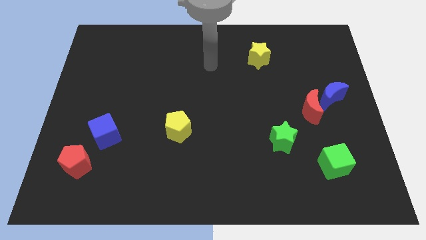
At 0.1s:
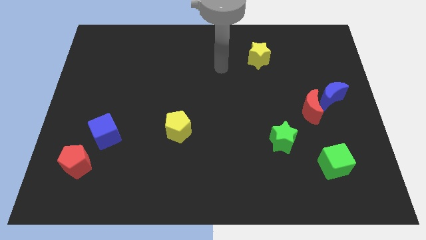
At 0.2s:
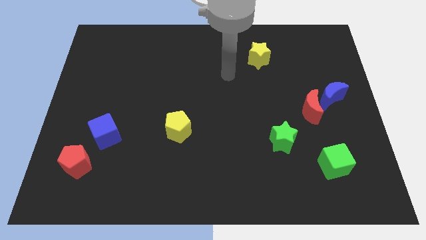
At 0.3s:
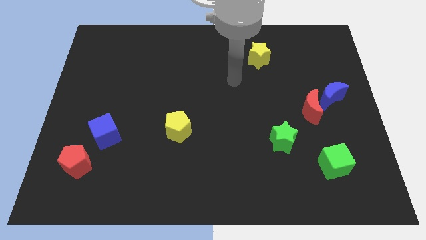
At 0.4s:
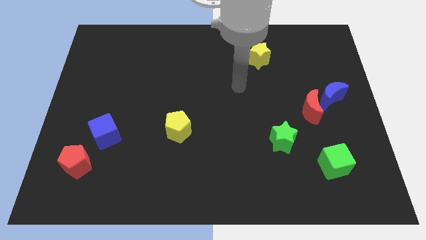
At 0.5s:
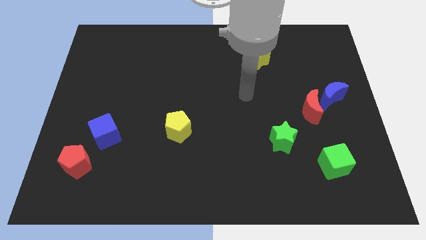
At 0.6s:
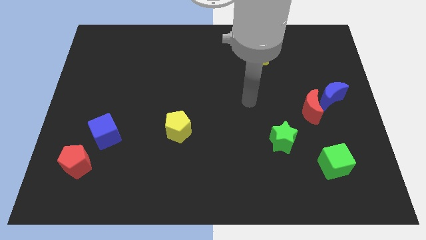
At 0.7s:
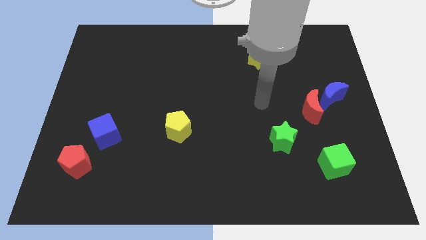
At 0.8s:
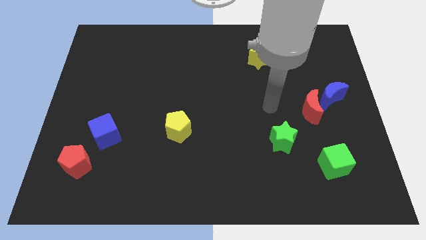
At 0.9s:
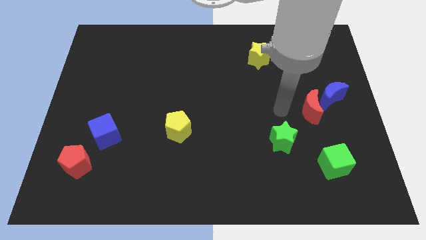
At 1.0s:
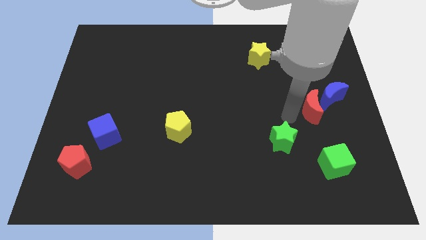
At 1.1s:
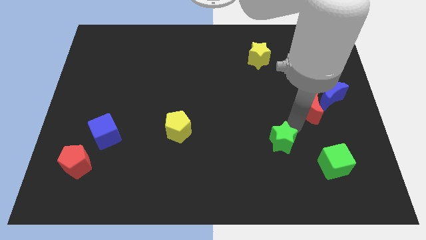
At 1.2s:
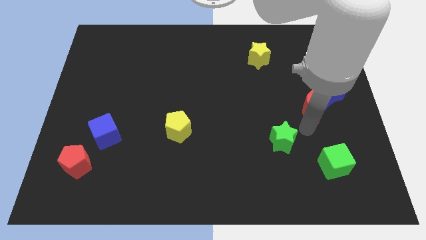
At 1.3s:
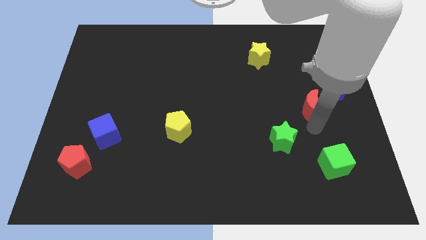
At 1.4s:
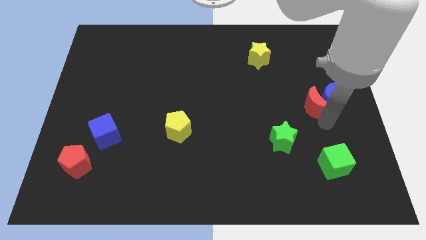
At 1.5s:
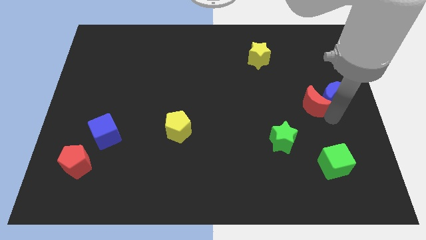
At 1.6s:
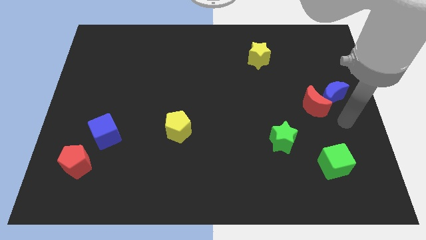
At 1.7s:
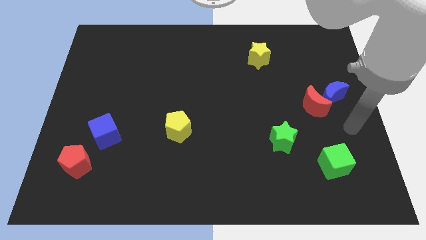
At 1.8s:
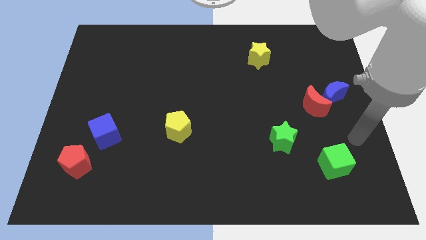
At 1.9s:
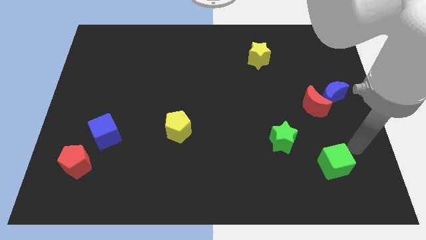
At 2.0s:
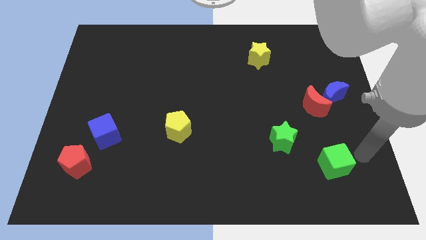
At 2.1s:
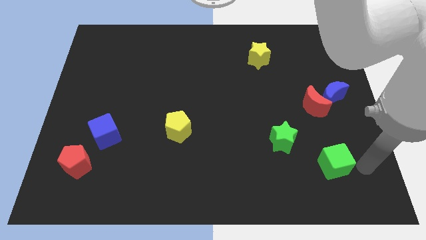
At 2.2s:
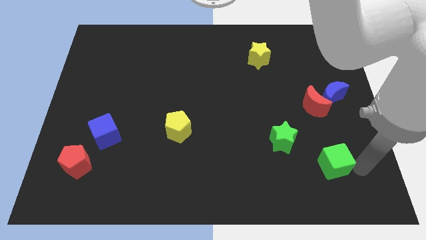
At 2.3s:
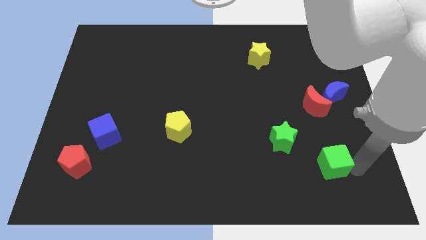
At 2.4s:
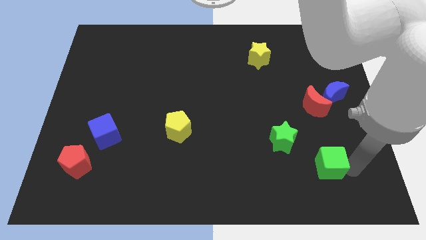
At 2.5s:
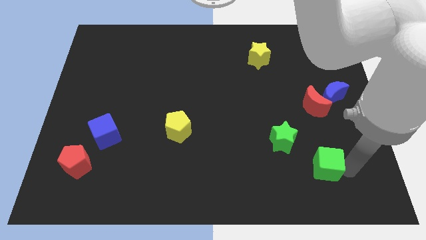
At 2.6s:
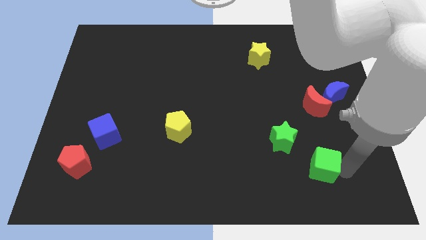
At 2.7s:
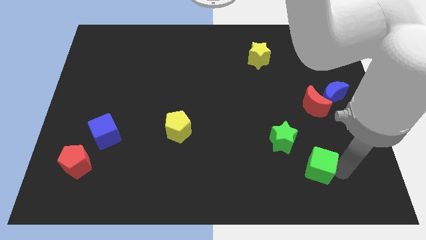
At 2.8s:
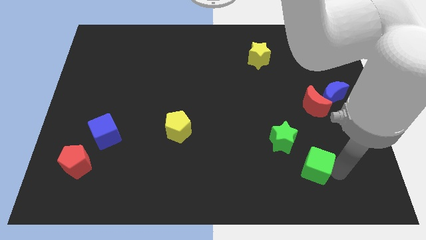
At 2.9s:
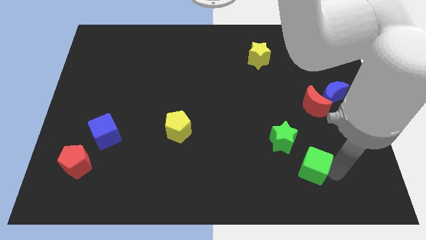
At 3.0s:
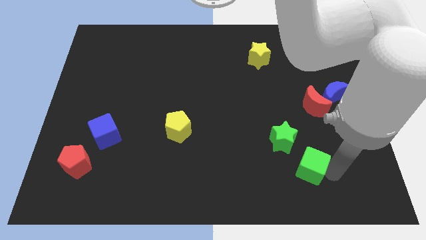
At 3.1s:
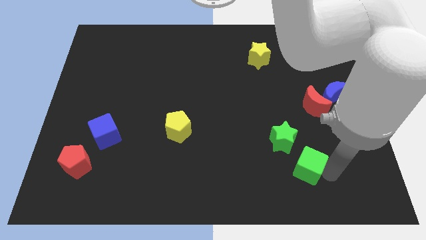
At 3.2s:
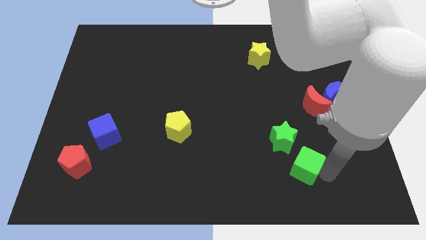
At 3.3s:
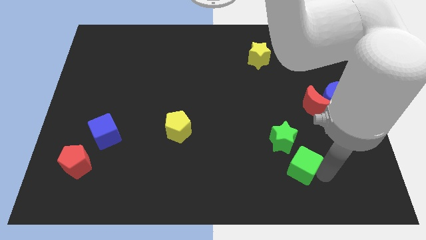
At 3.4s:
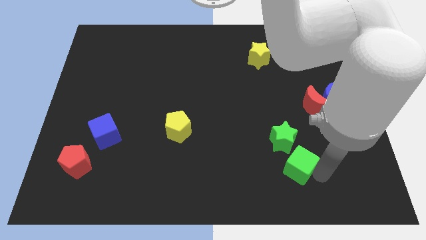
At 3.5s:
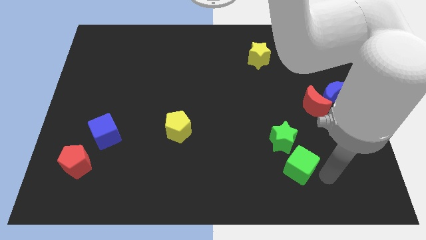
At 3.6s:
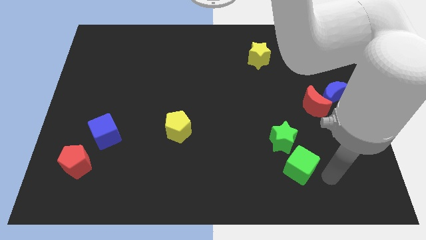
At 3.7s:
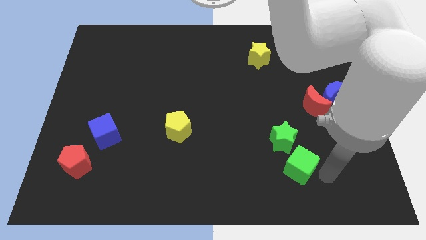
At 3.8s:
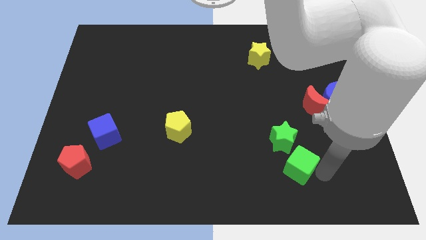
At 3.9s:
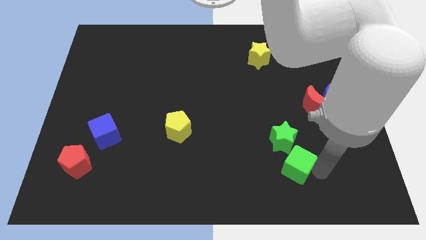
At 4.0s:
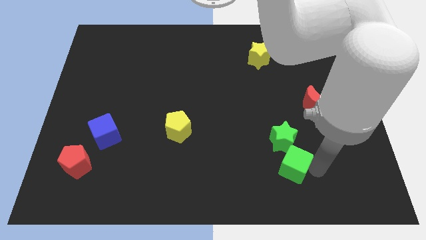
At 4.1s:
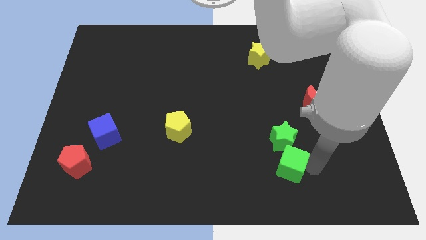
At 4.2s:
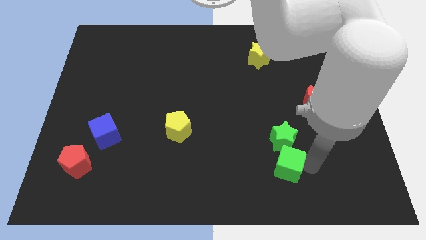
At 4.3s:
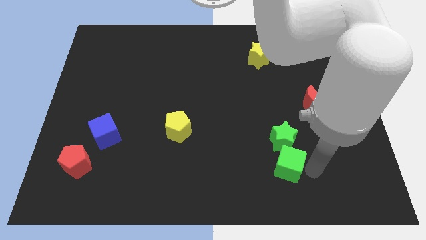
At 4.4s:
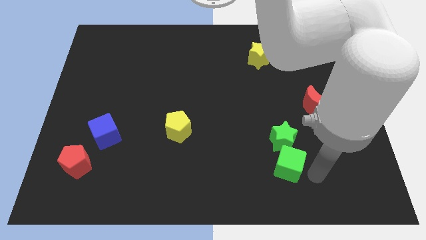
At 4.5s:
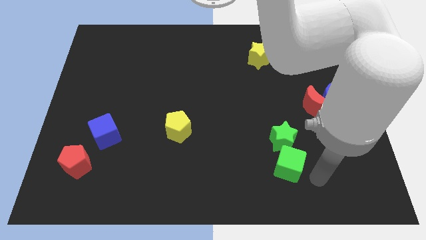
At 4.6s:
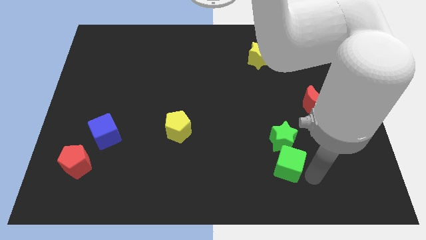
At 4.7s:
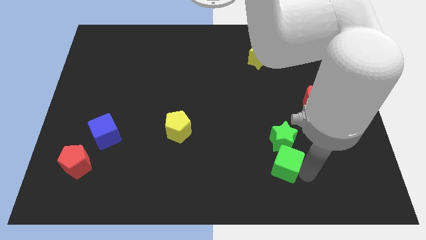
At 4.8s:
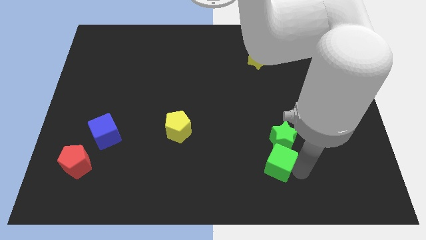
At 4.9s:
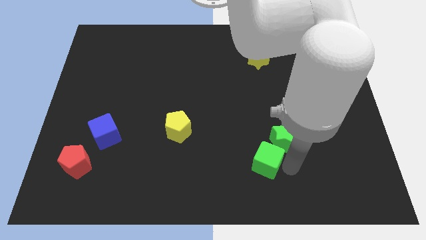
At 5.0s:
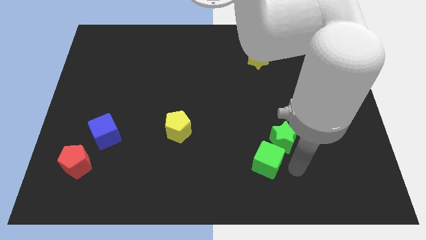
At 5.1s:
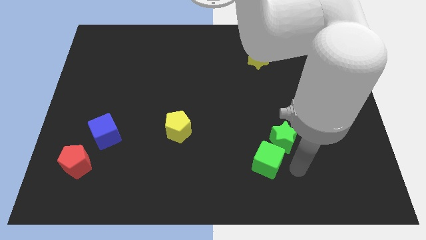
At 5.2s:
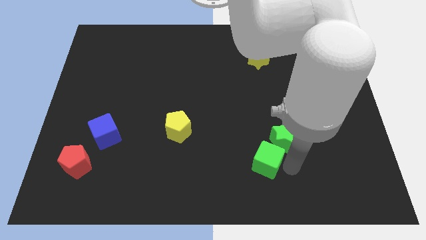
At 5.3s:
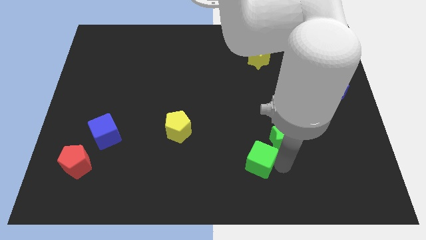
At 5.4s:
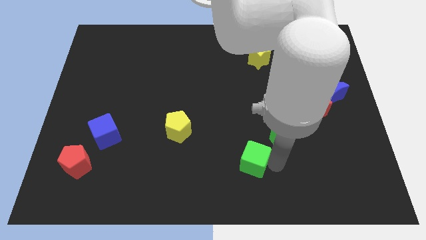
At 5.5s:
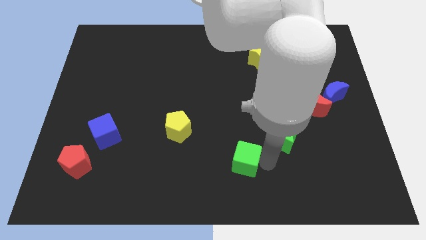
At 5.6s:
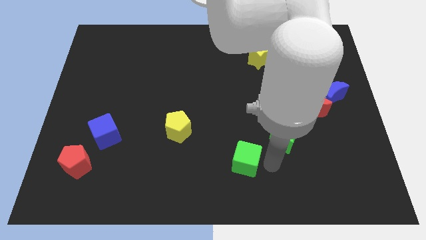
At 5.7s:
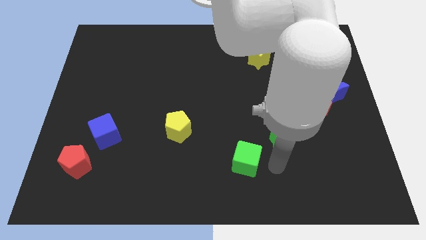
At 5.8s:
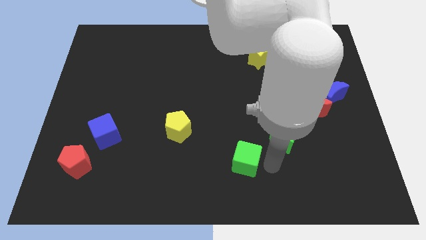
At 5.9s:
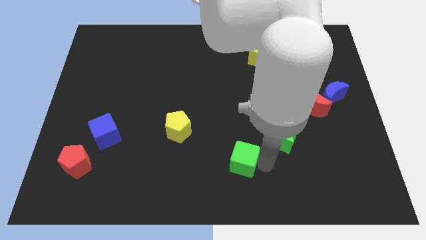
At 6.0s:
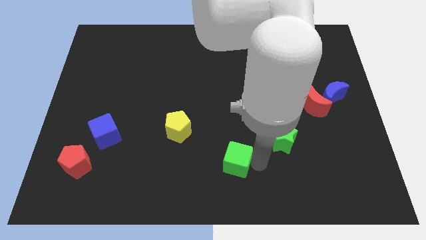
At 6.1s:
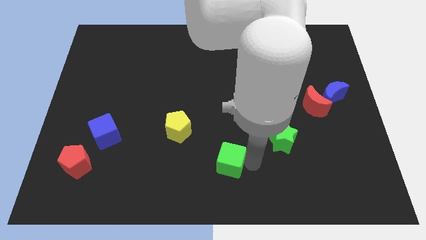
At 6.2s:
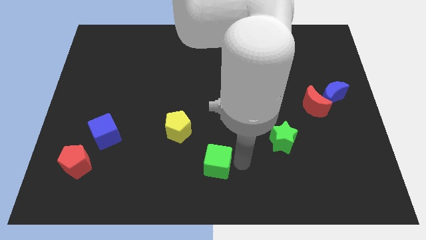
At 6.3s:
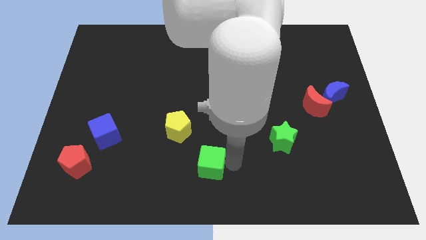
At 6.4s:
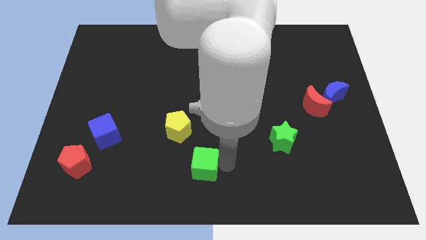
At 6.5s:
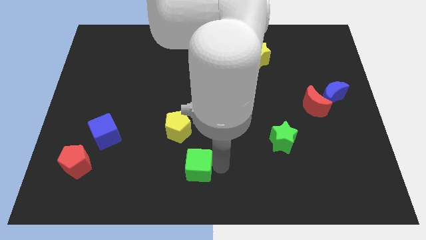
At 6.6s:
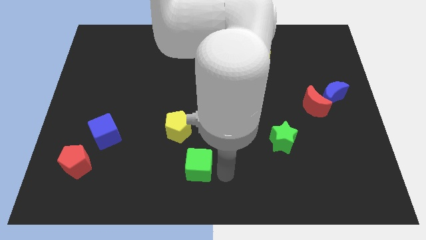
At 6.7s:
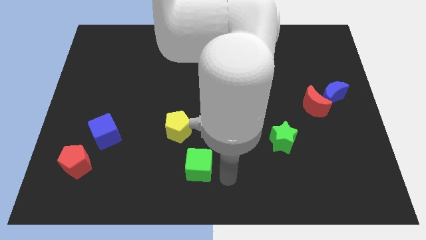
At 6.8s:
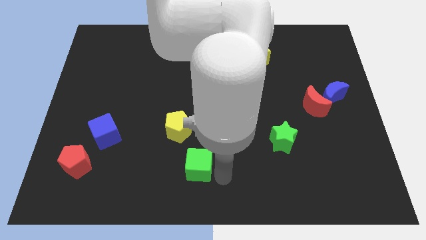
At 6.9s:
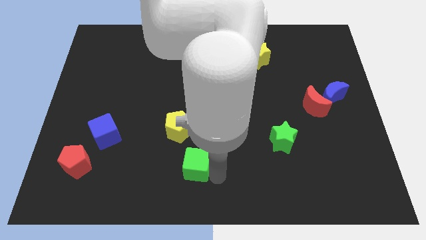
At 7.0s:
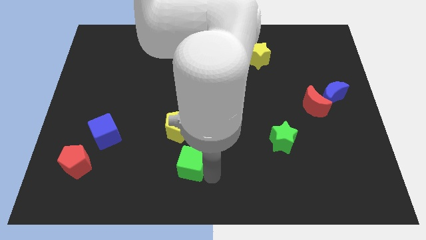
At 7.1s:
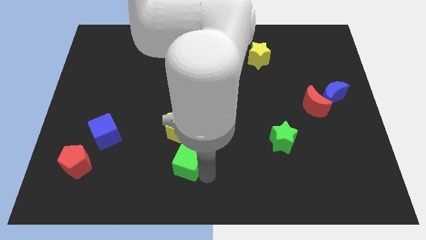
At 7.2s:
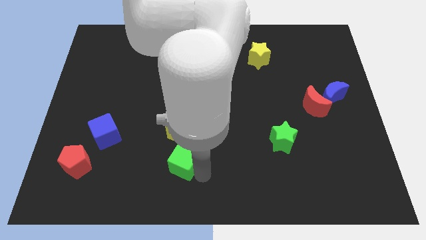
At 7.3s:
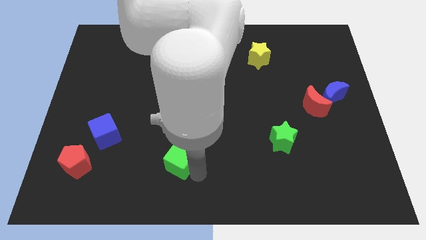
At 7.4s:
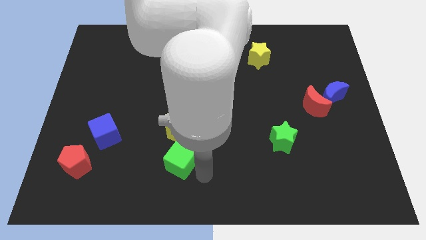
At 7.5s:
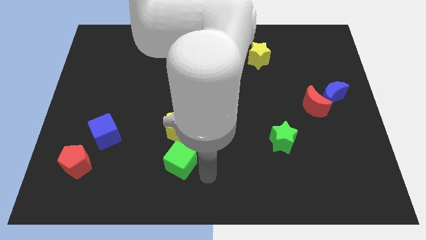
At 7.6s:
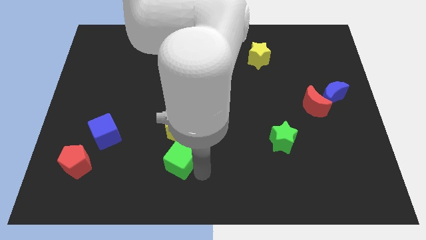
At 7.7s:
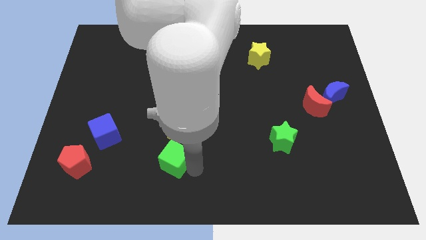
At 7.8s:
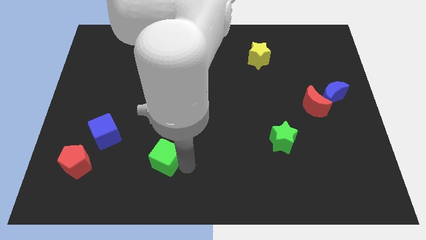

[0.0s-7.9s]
slide the green cube to the bottom left side of the yellow pentagon
